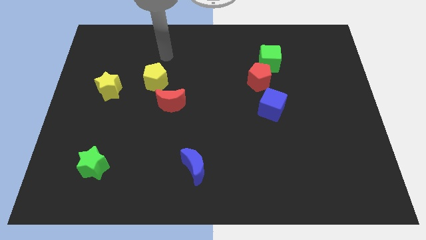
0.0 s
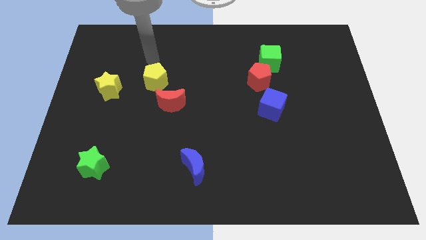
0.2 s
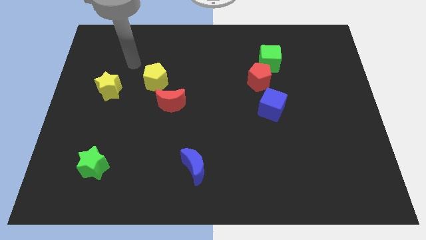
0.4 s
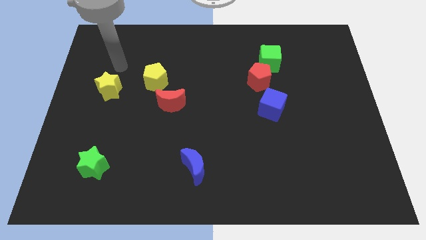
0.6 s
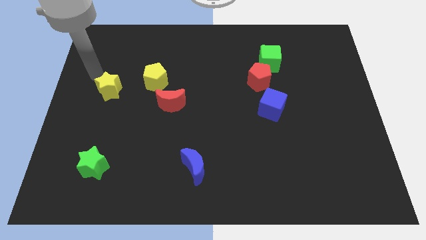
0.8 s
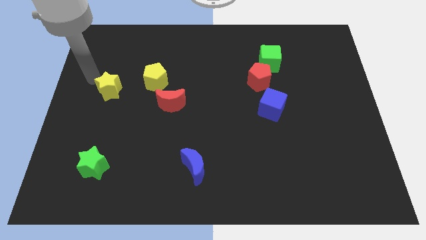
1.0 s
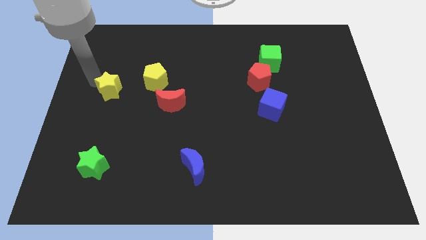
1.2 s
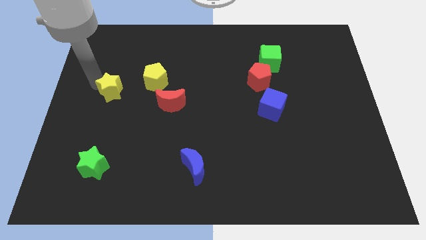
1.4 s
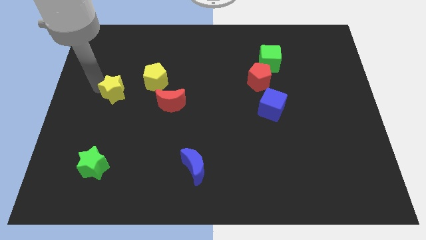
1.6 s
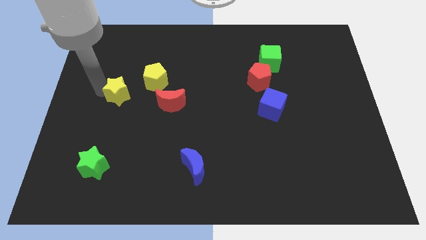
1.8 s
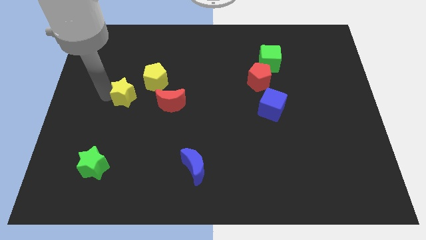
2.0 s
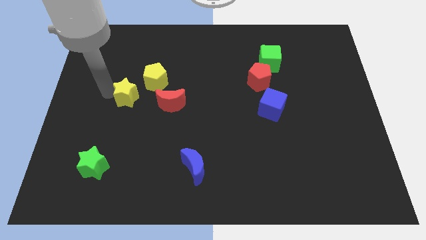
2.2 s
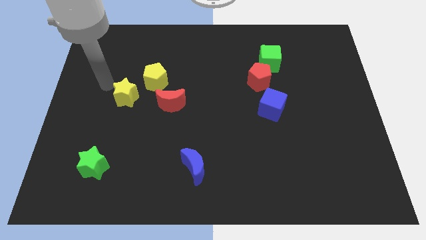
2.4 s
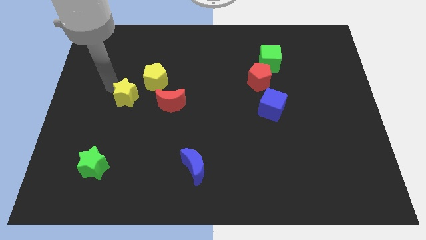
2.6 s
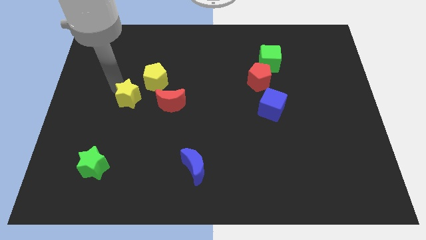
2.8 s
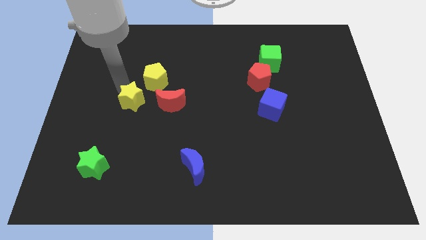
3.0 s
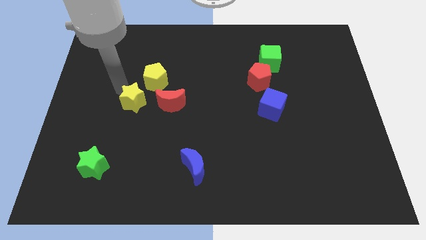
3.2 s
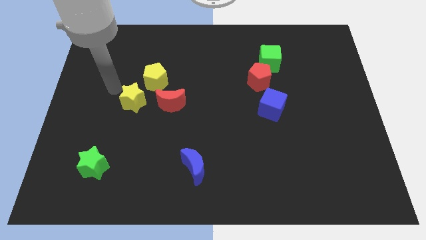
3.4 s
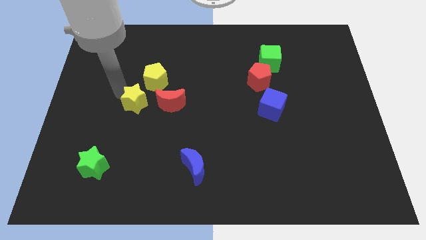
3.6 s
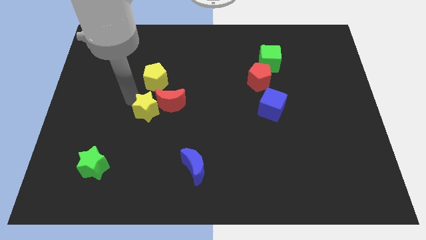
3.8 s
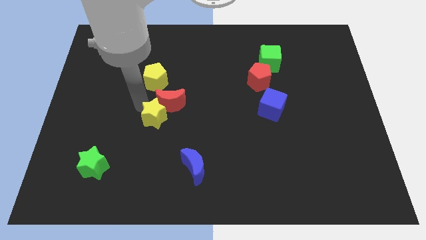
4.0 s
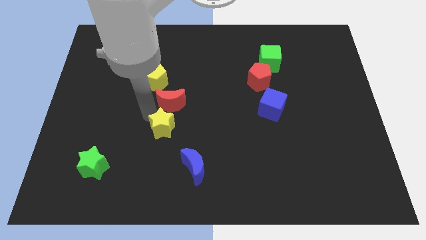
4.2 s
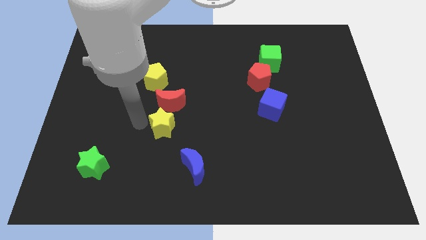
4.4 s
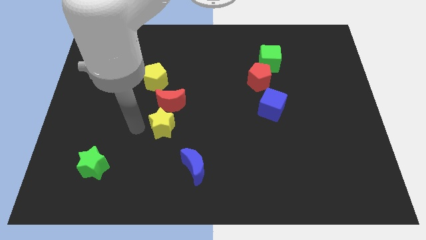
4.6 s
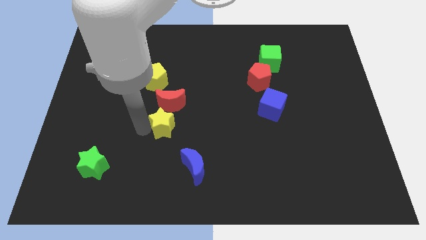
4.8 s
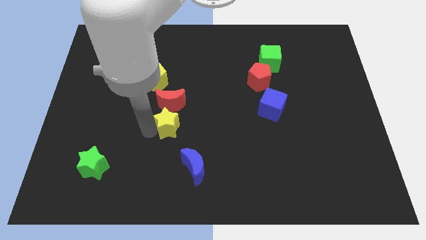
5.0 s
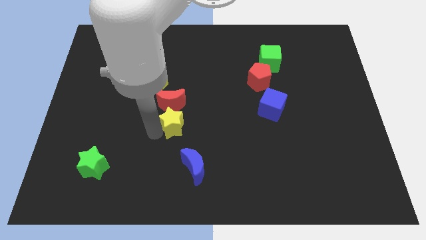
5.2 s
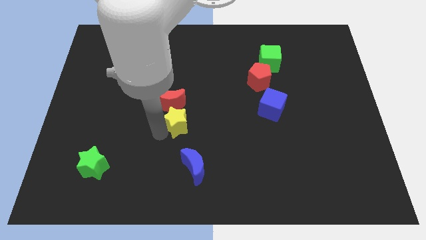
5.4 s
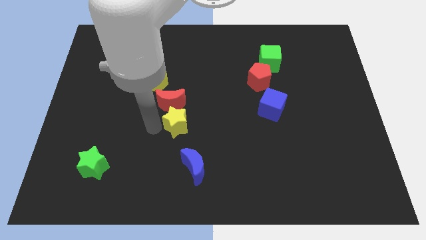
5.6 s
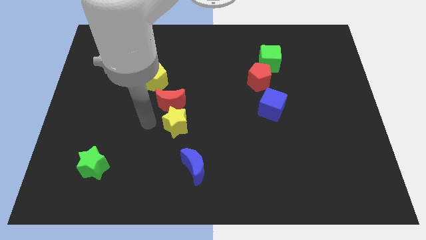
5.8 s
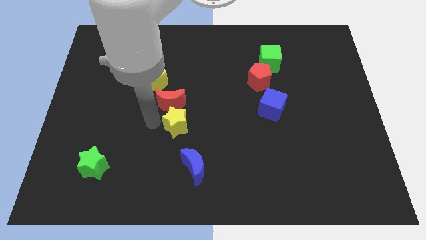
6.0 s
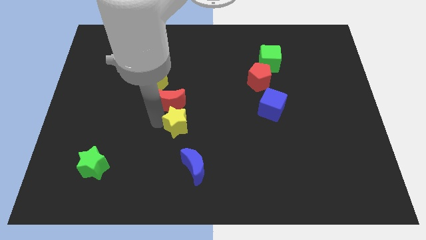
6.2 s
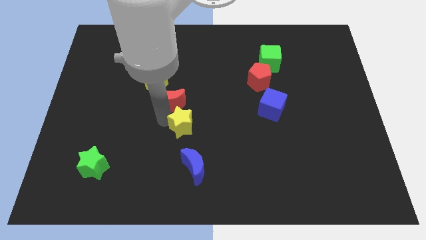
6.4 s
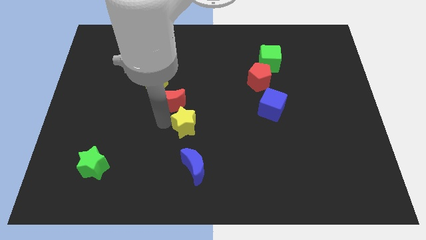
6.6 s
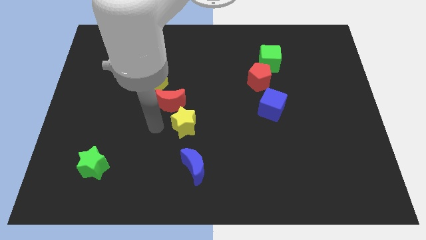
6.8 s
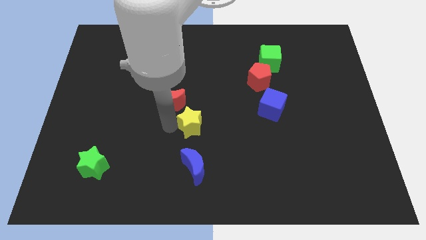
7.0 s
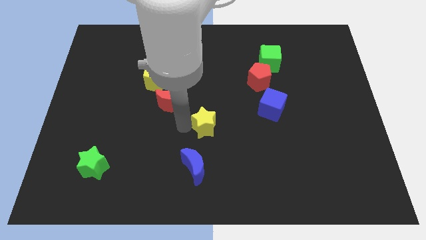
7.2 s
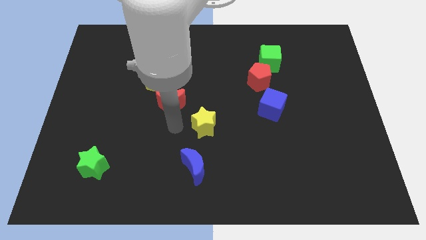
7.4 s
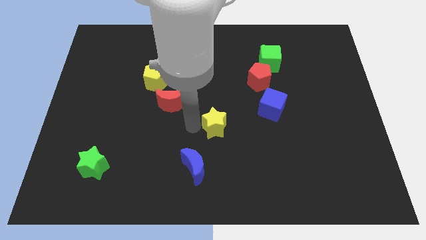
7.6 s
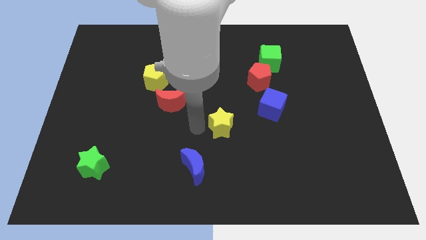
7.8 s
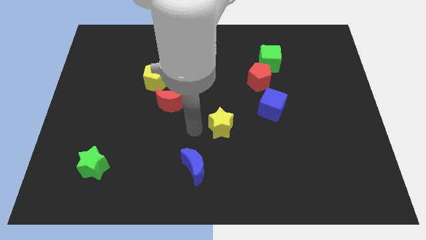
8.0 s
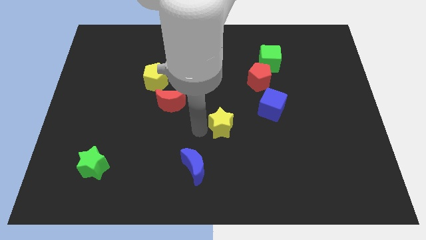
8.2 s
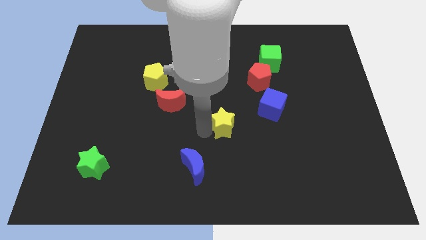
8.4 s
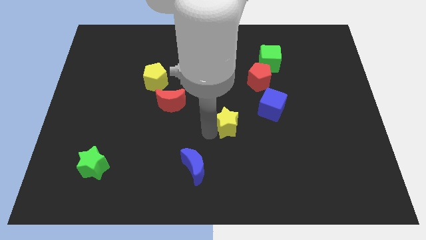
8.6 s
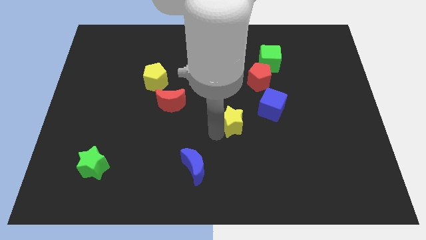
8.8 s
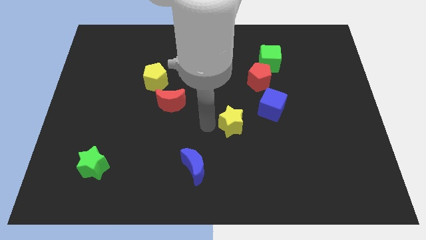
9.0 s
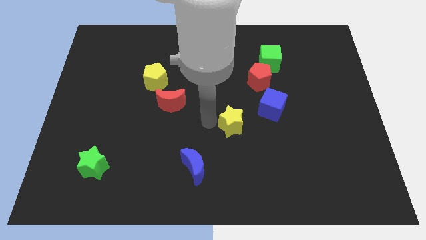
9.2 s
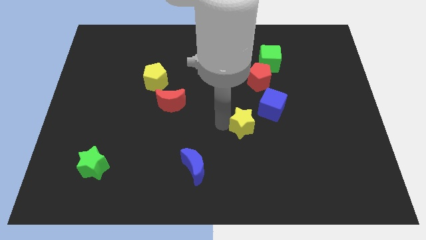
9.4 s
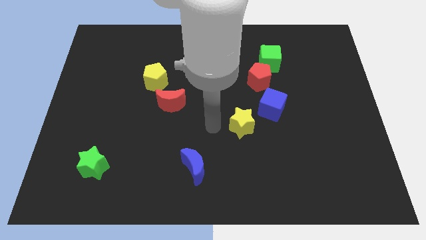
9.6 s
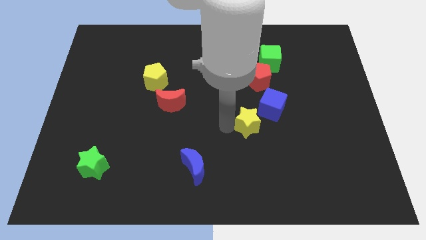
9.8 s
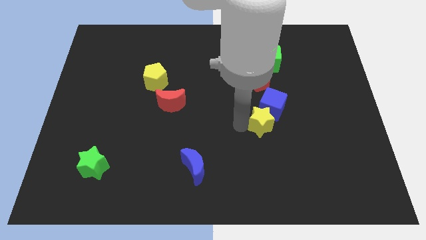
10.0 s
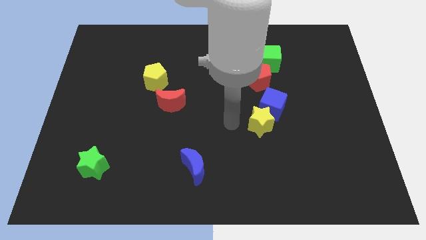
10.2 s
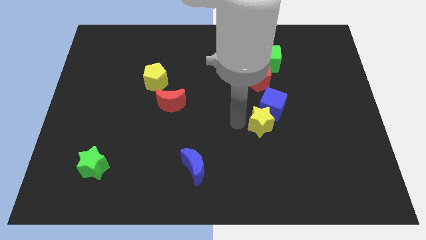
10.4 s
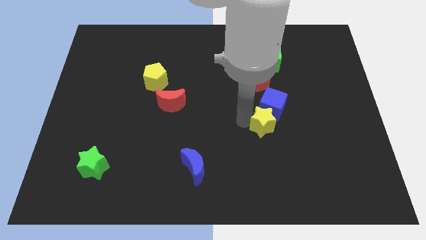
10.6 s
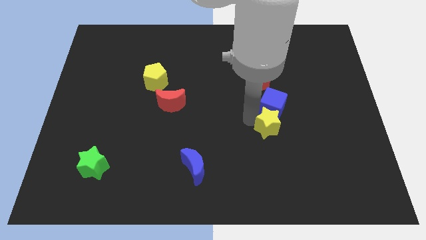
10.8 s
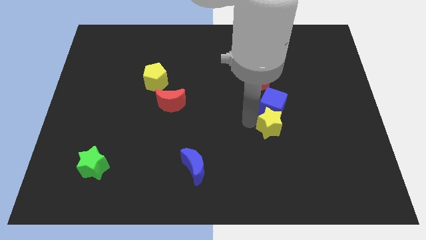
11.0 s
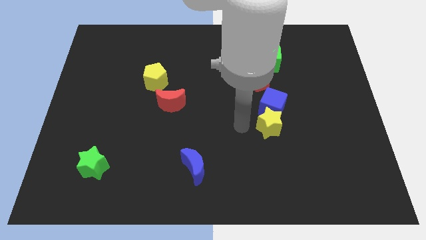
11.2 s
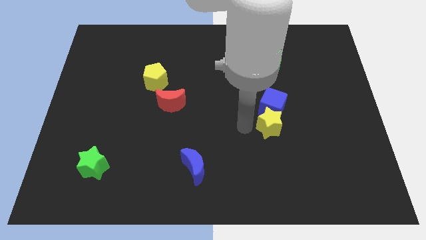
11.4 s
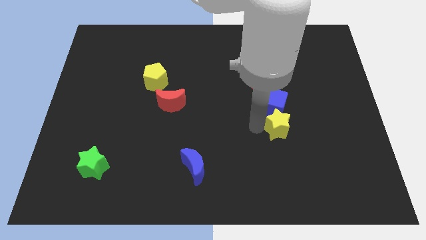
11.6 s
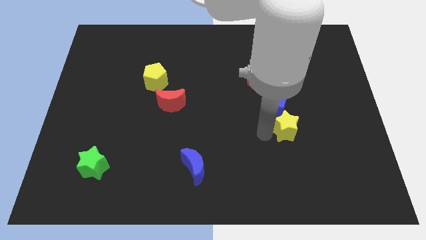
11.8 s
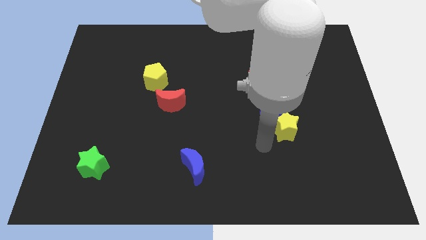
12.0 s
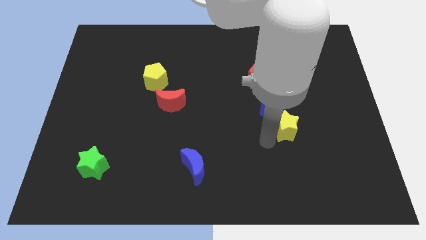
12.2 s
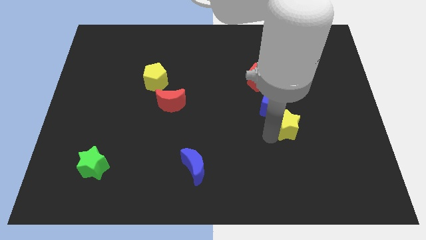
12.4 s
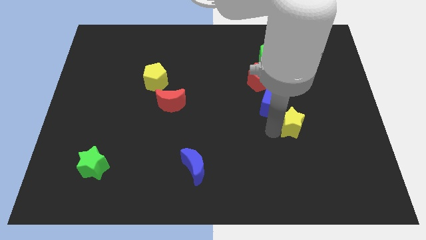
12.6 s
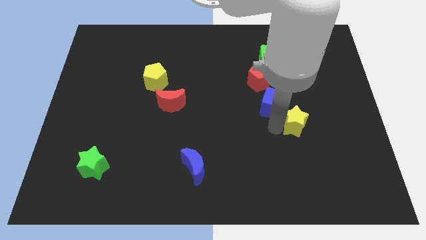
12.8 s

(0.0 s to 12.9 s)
put the yellow star just right of the blue cube
